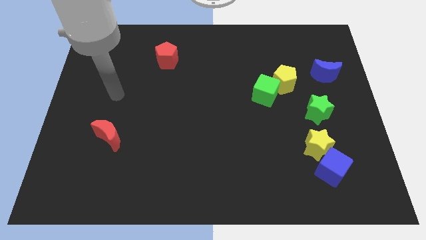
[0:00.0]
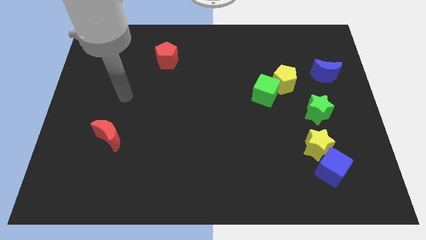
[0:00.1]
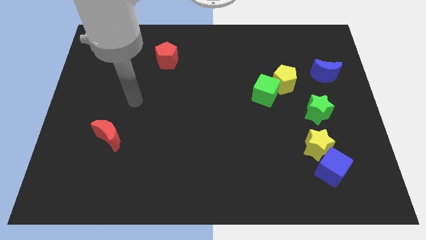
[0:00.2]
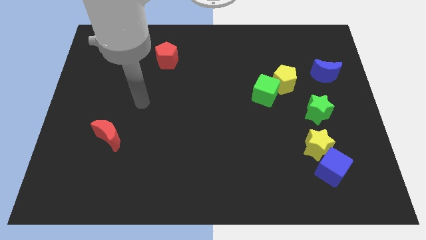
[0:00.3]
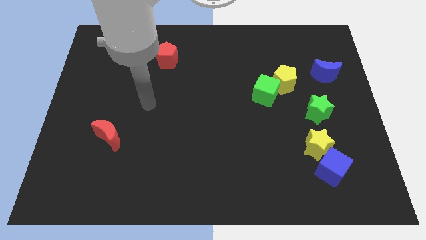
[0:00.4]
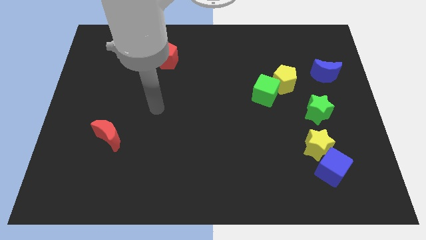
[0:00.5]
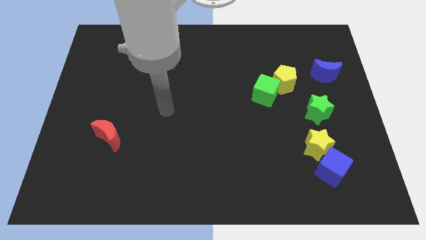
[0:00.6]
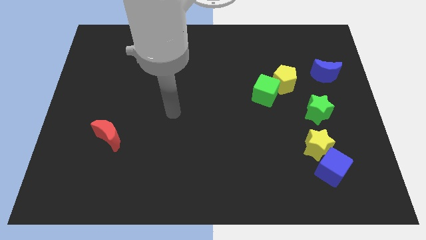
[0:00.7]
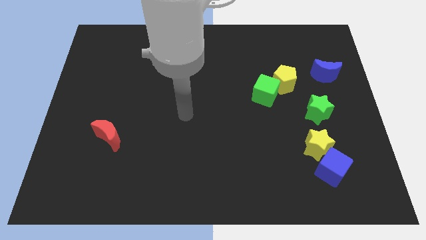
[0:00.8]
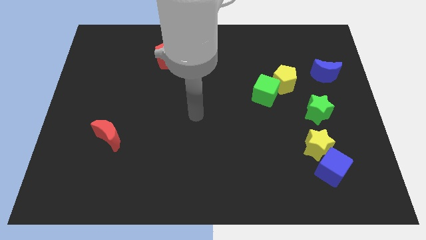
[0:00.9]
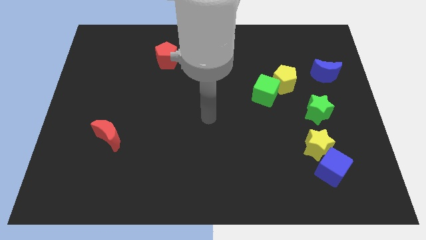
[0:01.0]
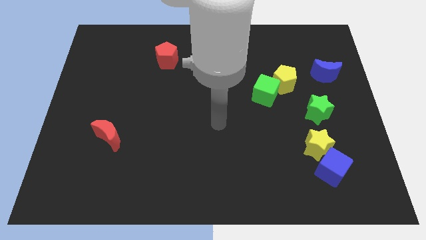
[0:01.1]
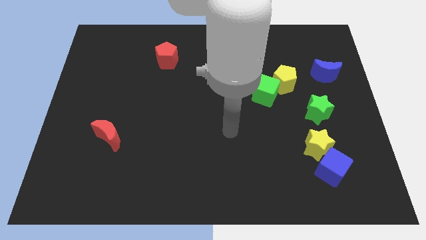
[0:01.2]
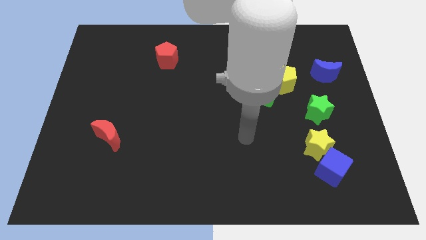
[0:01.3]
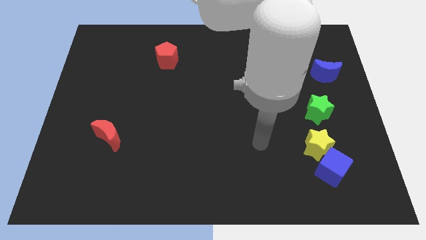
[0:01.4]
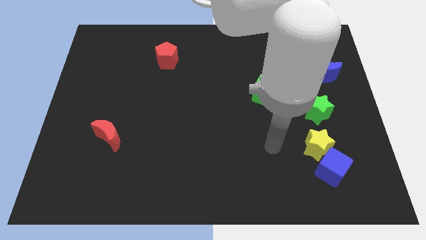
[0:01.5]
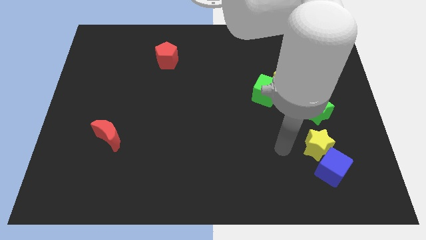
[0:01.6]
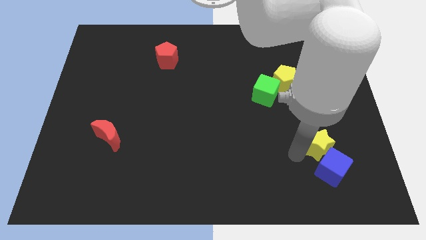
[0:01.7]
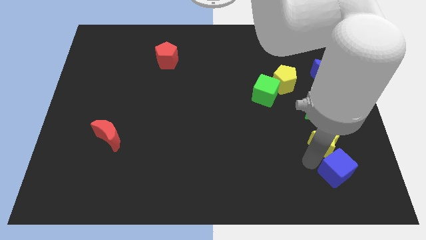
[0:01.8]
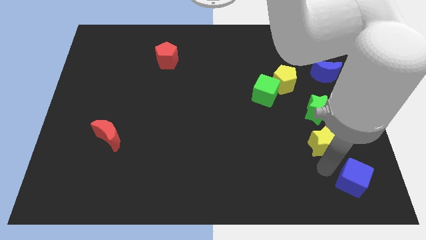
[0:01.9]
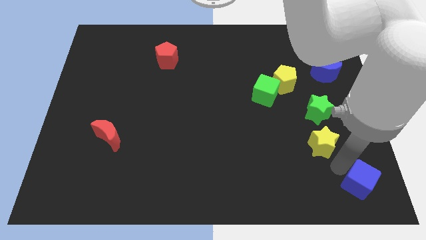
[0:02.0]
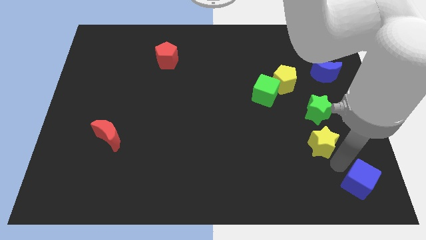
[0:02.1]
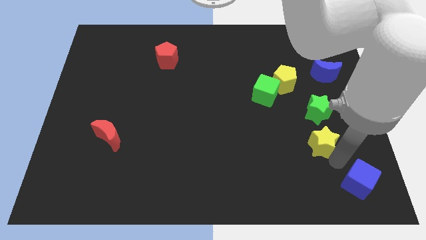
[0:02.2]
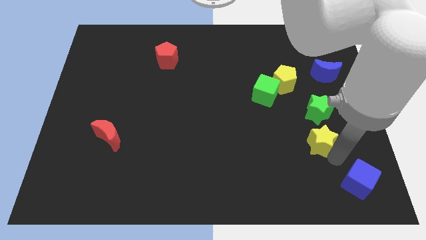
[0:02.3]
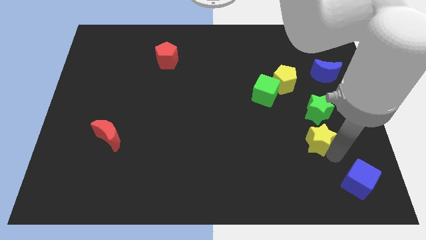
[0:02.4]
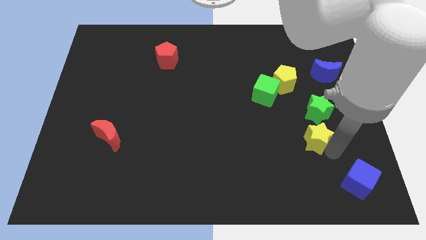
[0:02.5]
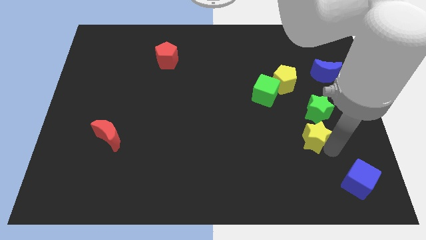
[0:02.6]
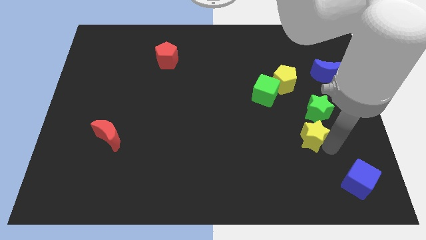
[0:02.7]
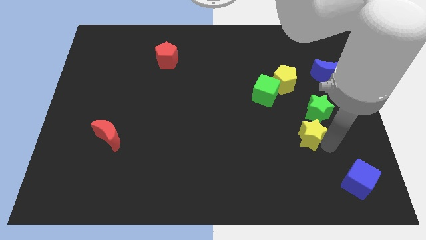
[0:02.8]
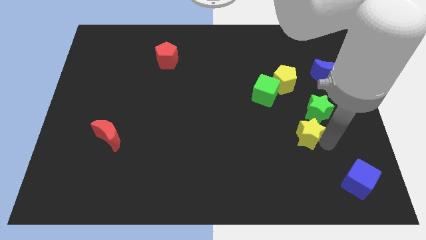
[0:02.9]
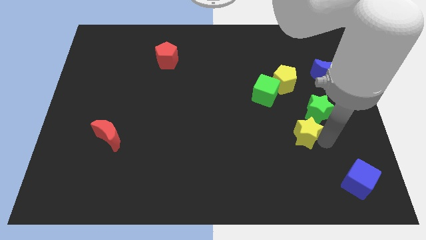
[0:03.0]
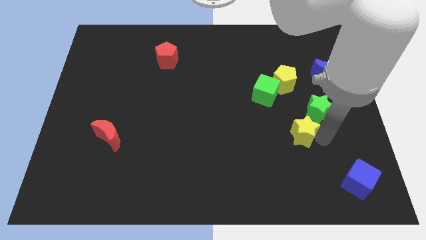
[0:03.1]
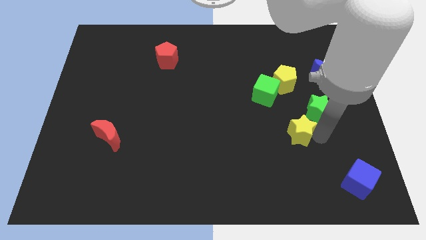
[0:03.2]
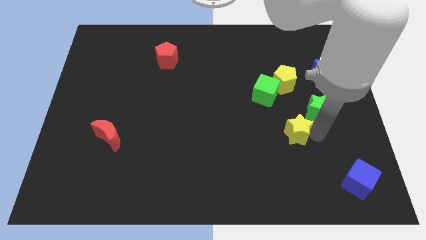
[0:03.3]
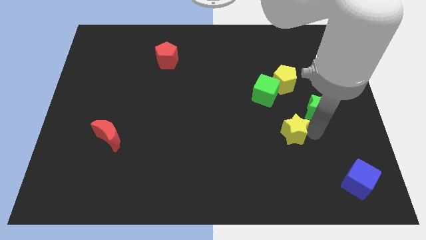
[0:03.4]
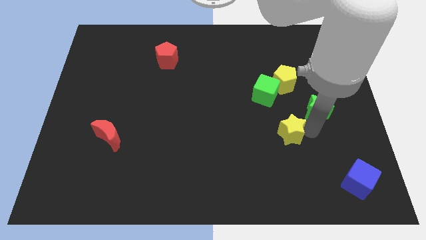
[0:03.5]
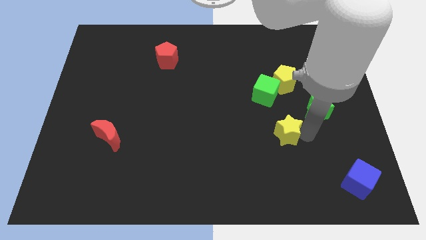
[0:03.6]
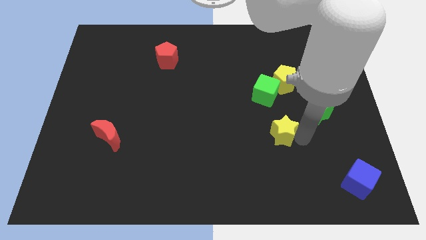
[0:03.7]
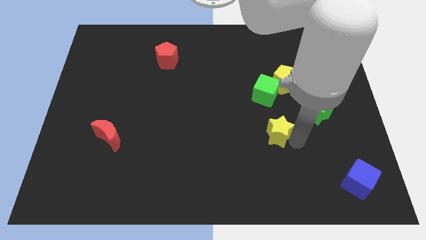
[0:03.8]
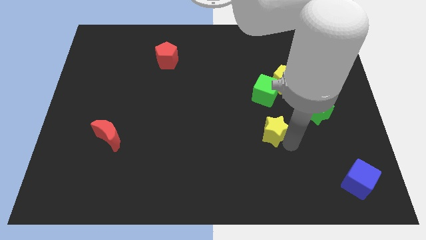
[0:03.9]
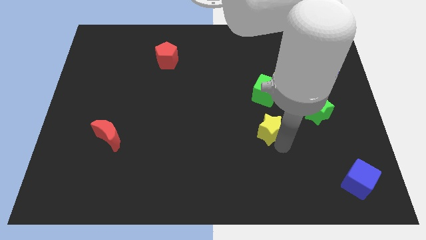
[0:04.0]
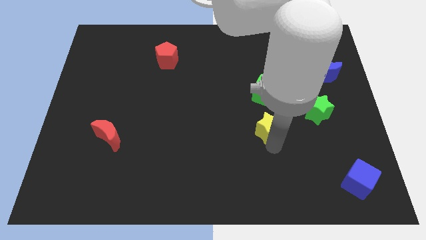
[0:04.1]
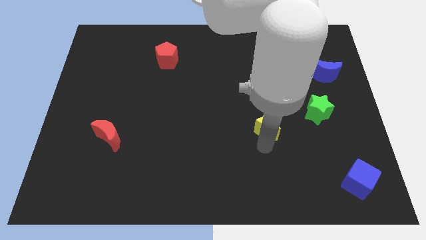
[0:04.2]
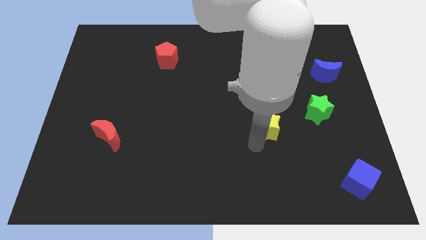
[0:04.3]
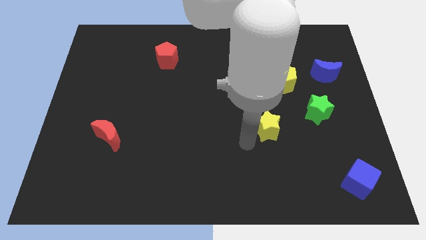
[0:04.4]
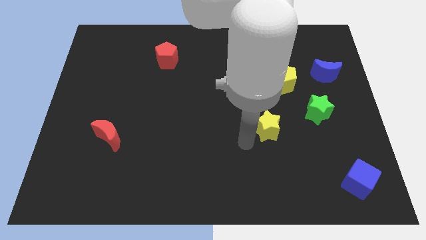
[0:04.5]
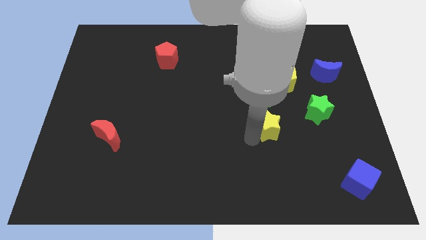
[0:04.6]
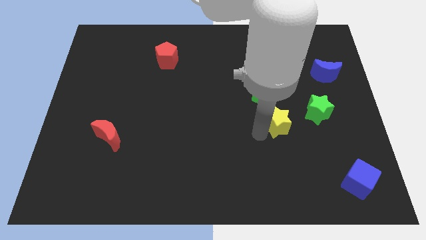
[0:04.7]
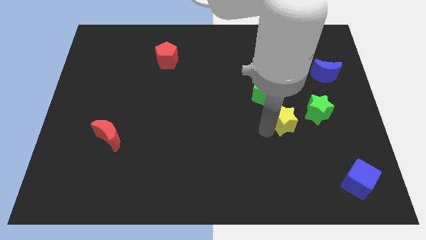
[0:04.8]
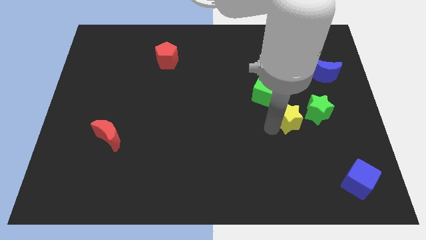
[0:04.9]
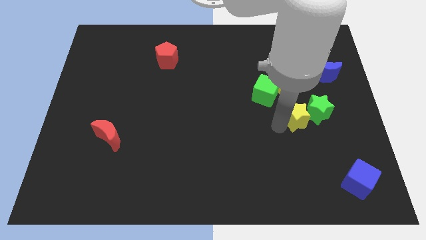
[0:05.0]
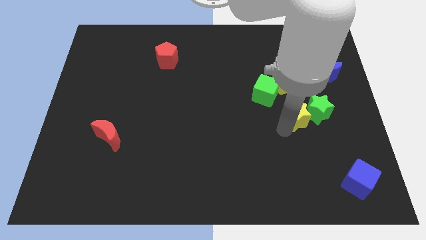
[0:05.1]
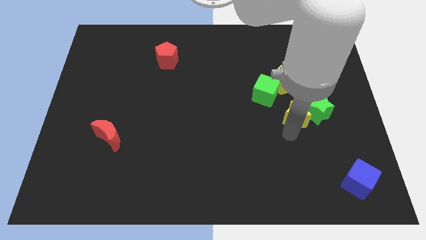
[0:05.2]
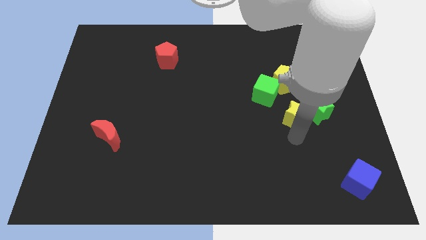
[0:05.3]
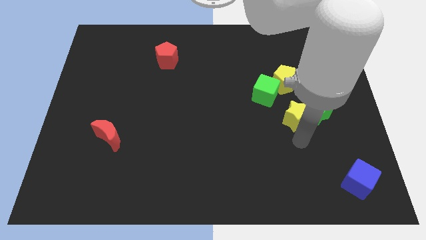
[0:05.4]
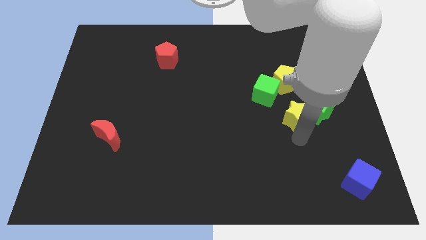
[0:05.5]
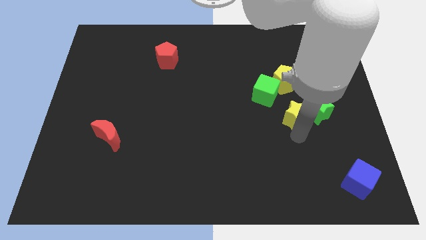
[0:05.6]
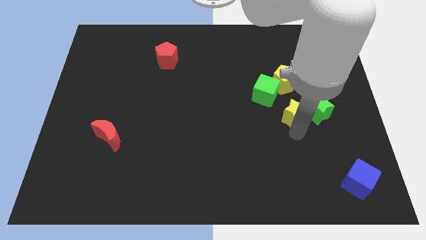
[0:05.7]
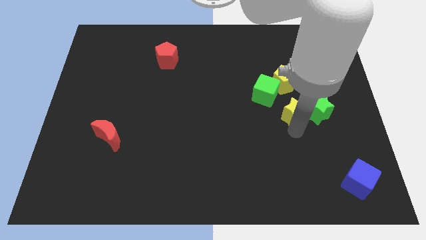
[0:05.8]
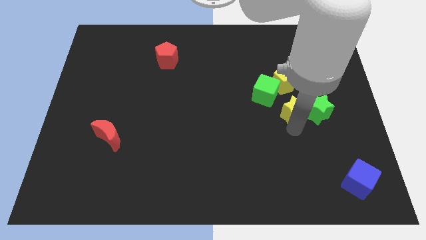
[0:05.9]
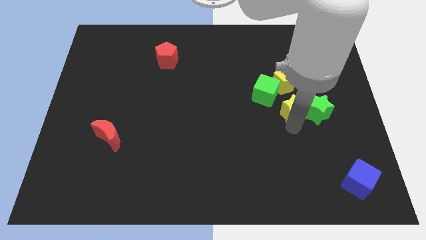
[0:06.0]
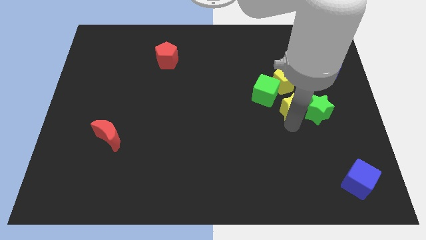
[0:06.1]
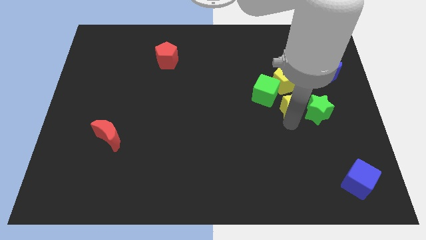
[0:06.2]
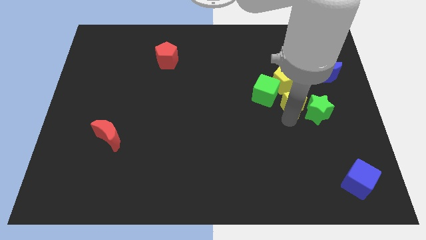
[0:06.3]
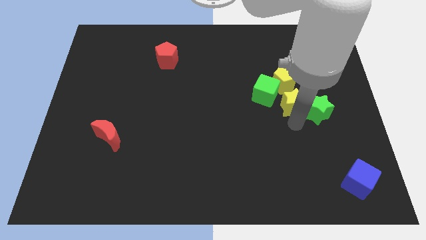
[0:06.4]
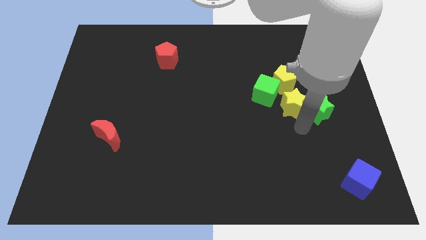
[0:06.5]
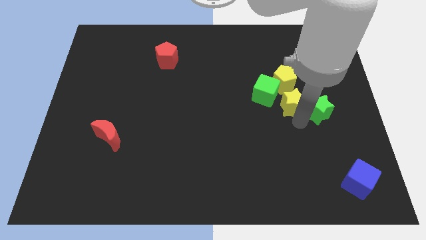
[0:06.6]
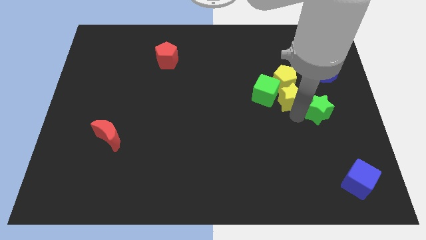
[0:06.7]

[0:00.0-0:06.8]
push the yellow star next to the yellow pentagon

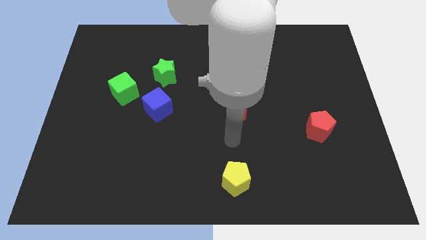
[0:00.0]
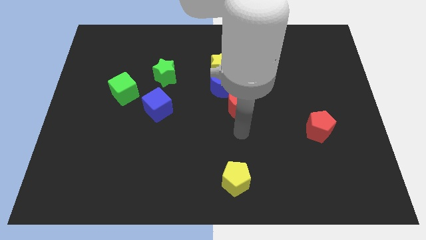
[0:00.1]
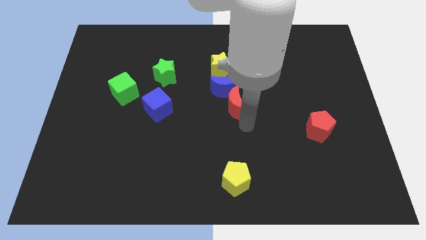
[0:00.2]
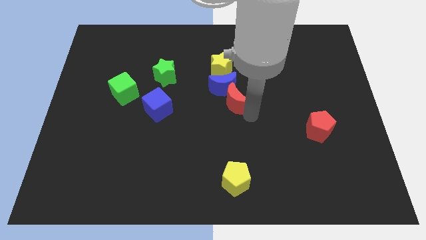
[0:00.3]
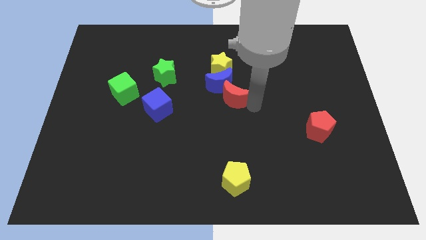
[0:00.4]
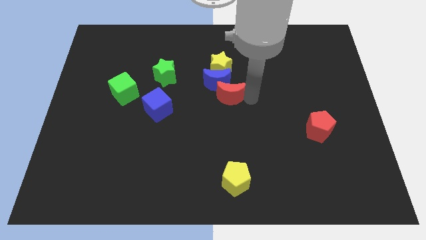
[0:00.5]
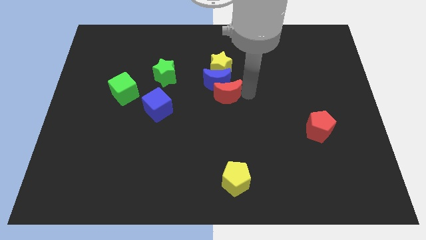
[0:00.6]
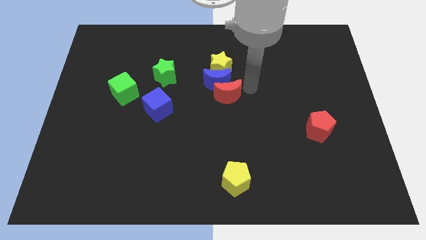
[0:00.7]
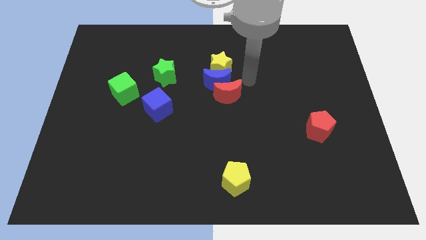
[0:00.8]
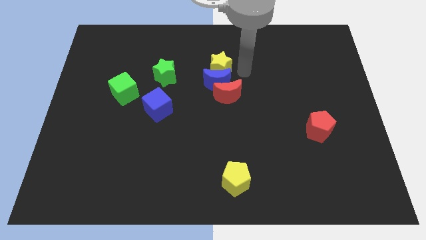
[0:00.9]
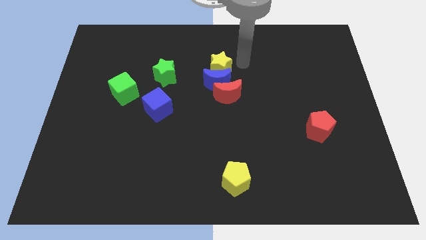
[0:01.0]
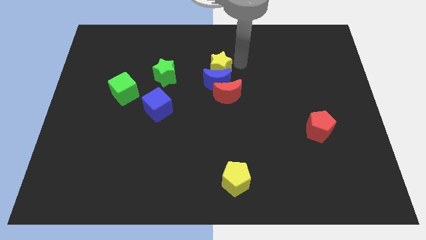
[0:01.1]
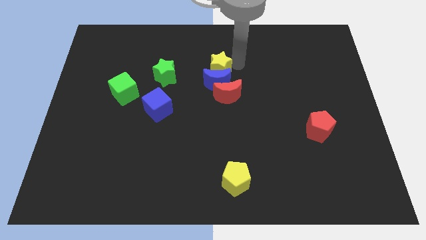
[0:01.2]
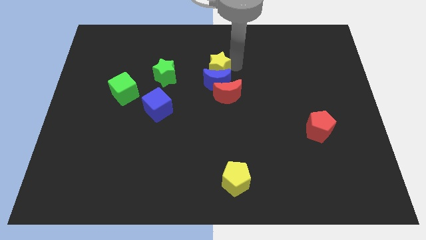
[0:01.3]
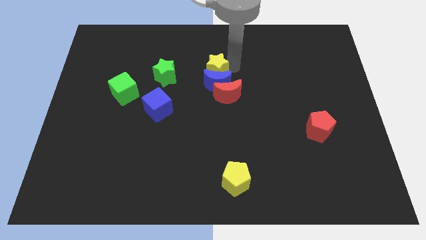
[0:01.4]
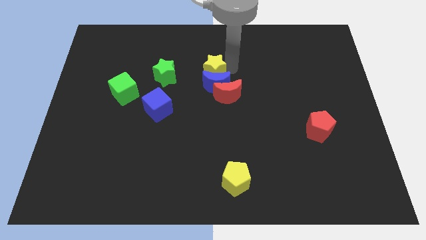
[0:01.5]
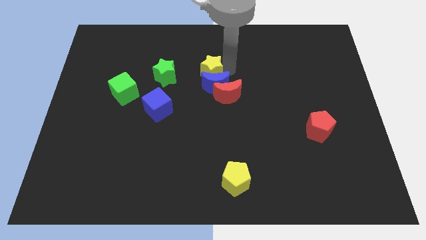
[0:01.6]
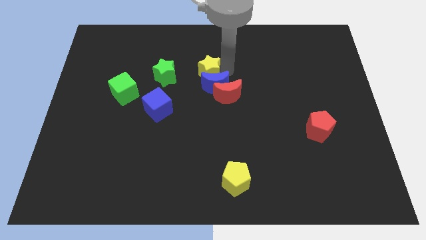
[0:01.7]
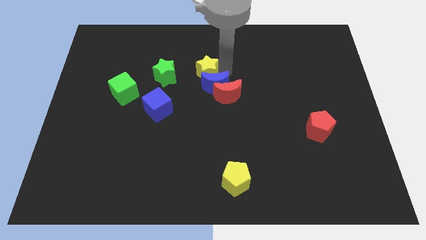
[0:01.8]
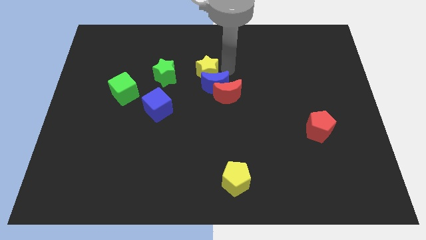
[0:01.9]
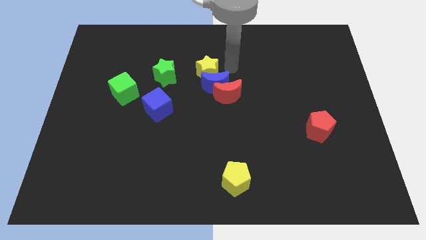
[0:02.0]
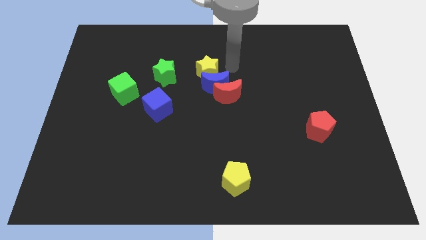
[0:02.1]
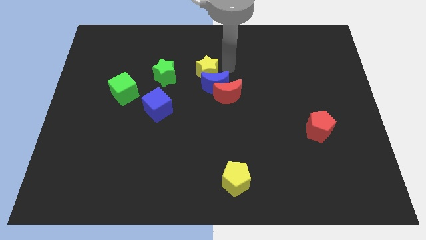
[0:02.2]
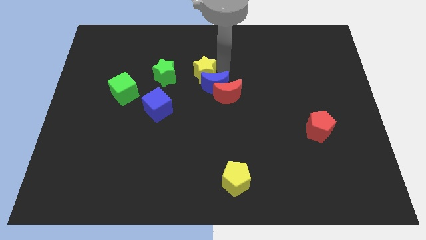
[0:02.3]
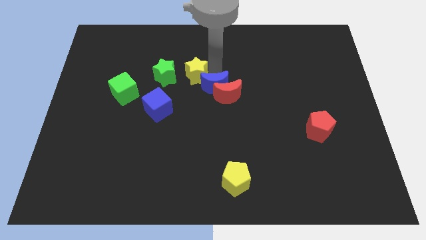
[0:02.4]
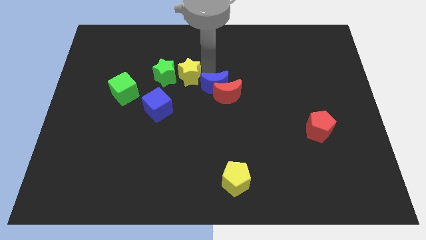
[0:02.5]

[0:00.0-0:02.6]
push the yellow star next to the green star
